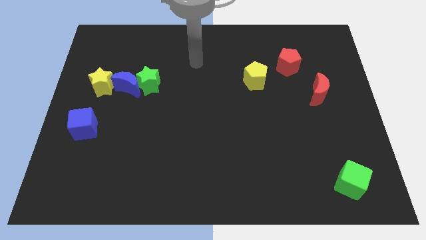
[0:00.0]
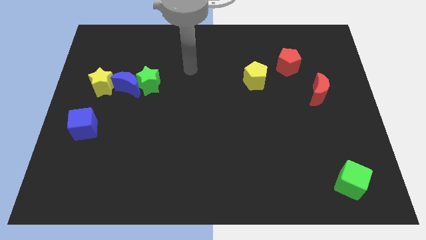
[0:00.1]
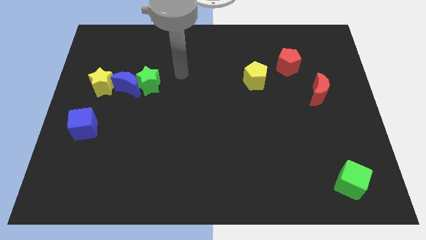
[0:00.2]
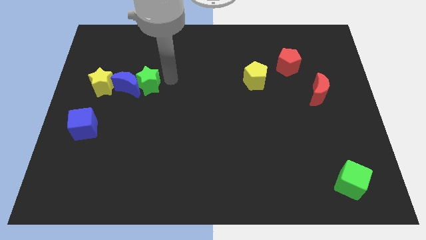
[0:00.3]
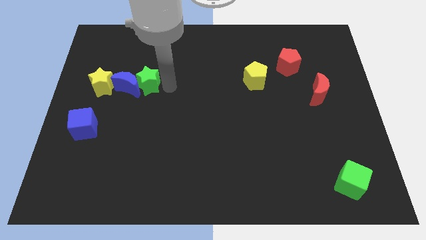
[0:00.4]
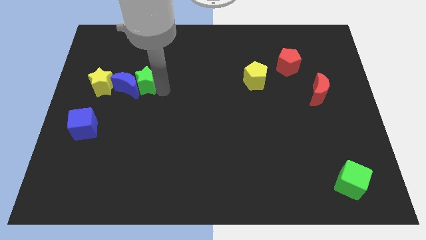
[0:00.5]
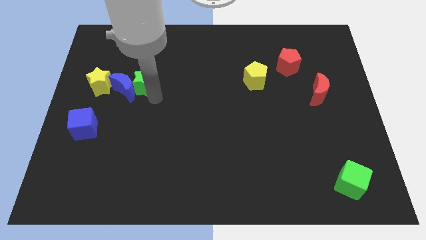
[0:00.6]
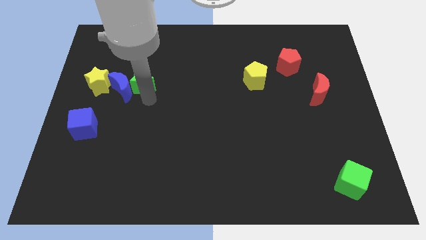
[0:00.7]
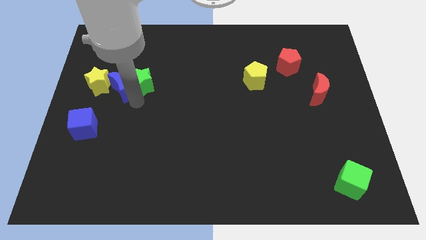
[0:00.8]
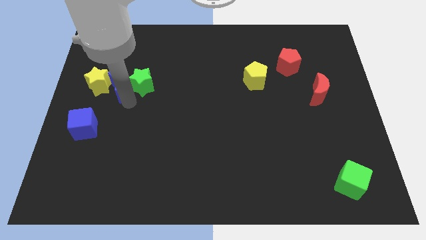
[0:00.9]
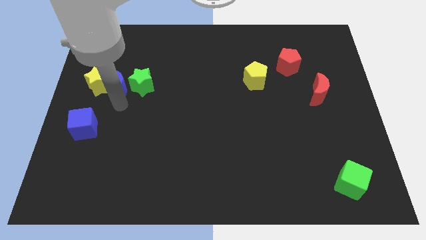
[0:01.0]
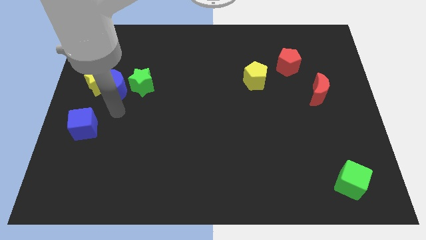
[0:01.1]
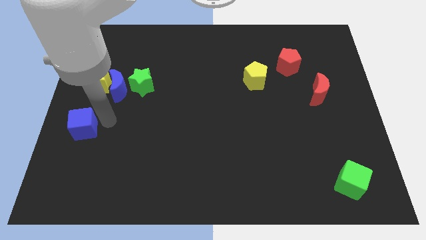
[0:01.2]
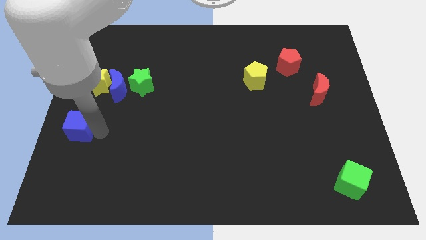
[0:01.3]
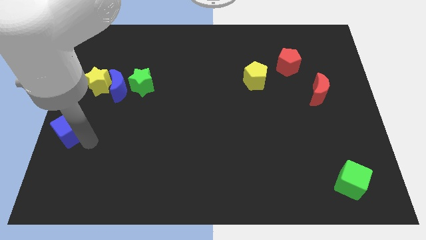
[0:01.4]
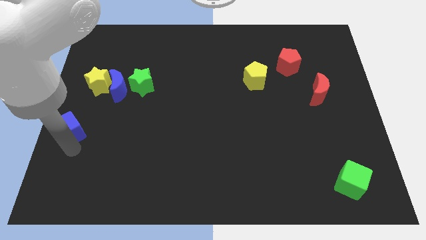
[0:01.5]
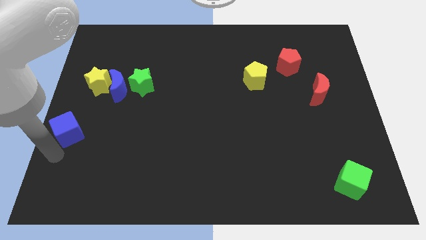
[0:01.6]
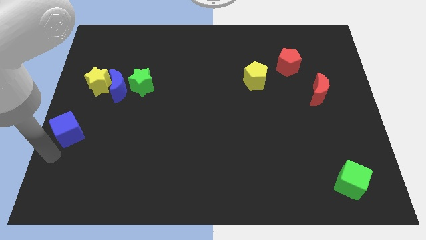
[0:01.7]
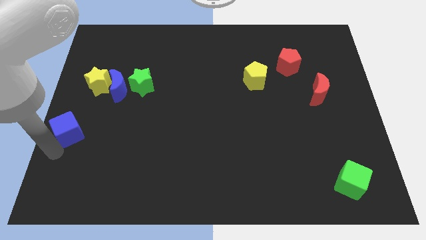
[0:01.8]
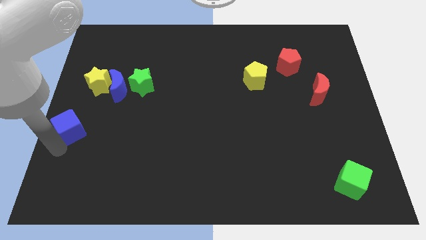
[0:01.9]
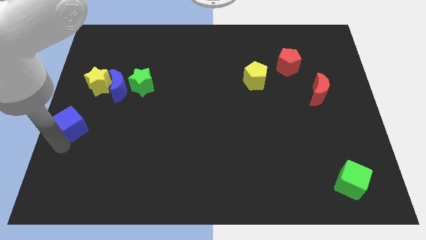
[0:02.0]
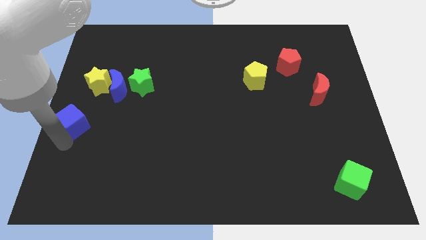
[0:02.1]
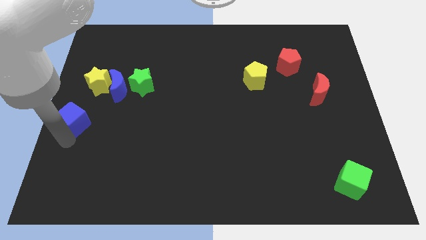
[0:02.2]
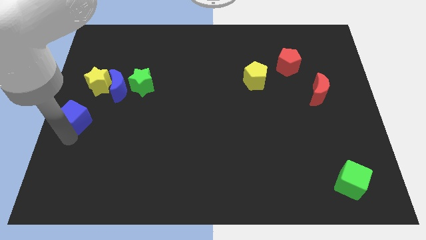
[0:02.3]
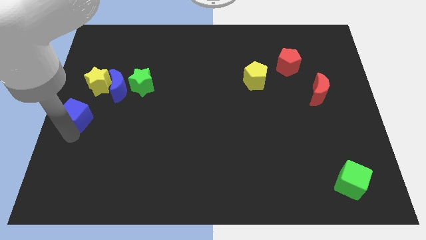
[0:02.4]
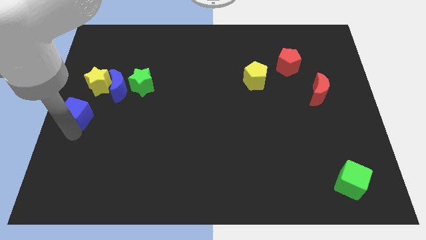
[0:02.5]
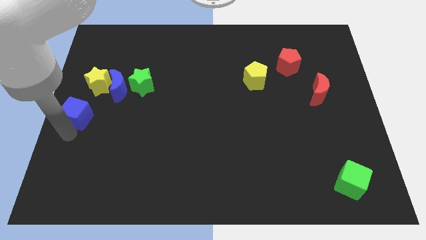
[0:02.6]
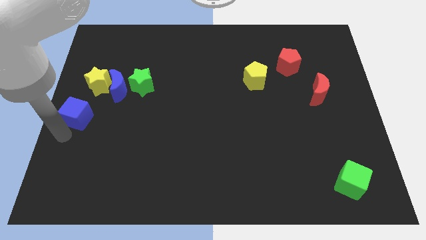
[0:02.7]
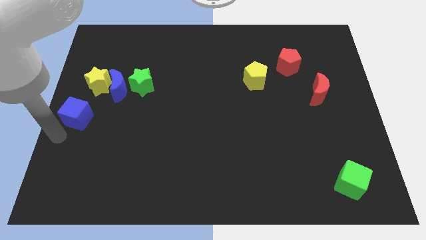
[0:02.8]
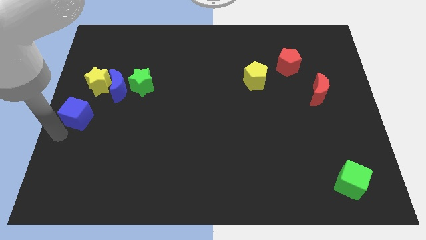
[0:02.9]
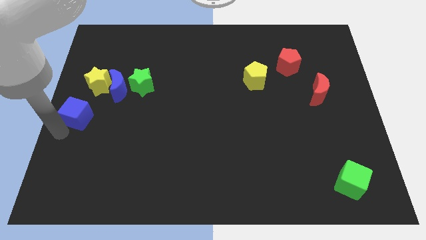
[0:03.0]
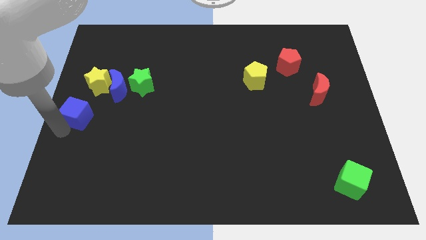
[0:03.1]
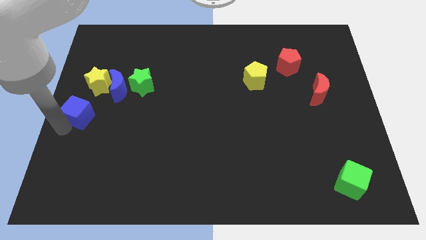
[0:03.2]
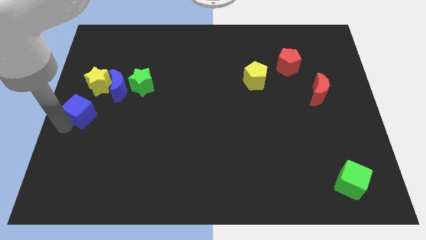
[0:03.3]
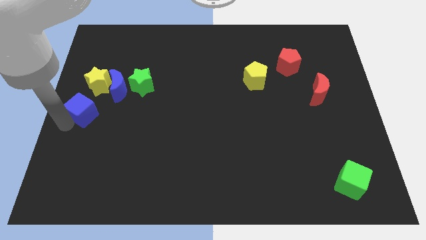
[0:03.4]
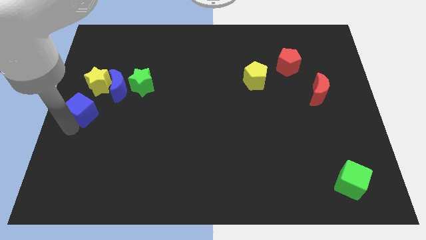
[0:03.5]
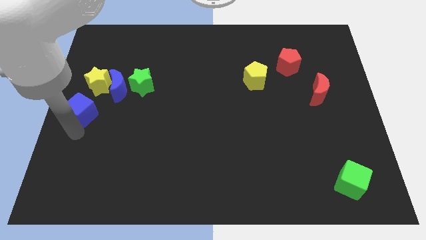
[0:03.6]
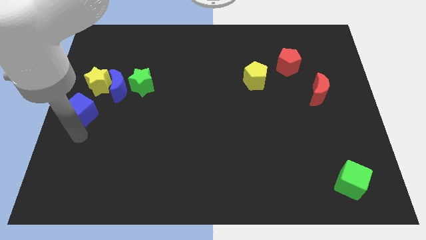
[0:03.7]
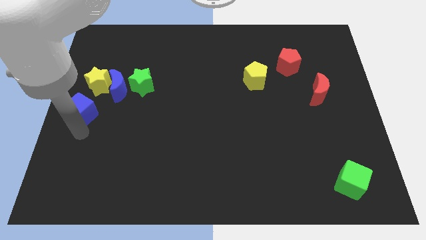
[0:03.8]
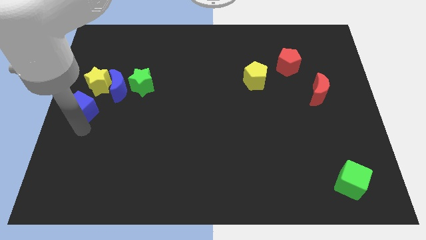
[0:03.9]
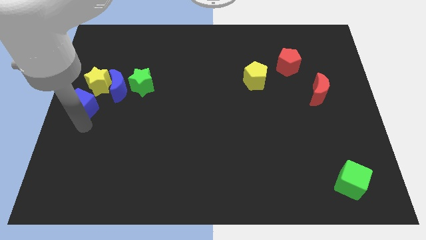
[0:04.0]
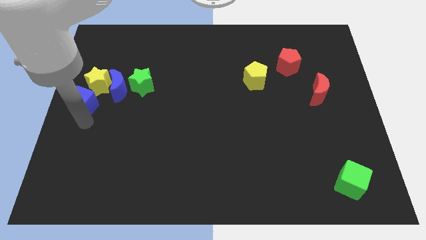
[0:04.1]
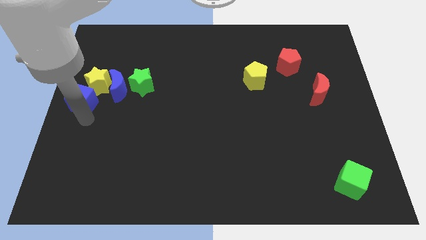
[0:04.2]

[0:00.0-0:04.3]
slightly slide the blue cube upwards

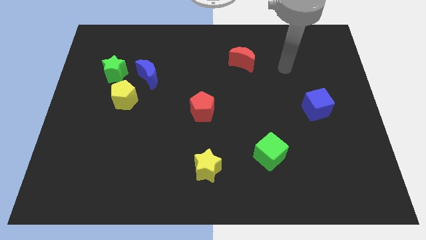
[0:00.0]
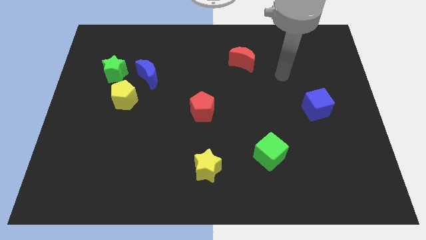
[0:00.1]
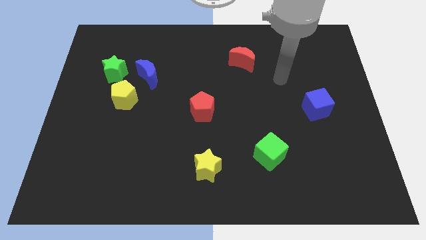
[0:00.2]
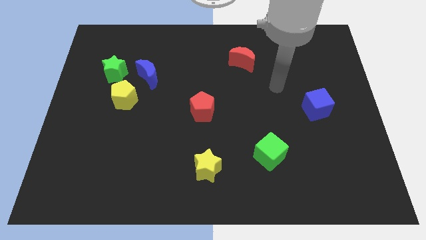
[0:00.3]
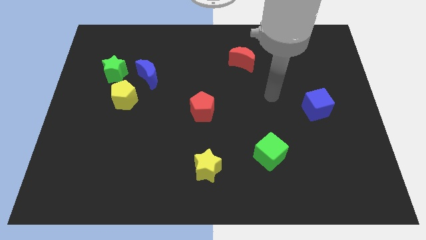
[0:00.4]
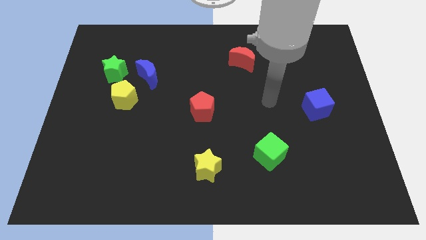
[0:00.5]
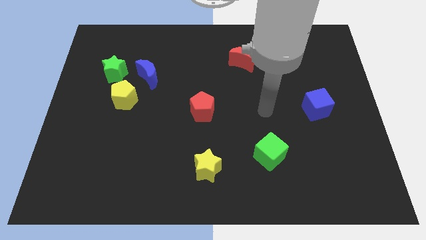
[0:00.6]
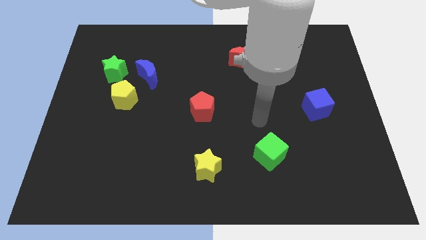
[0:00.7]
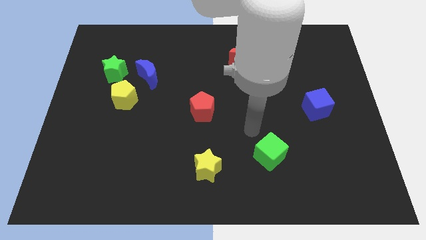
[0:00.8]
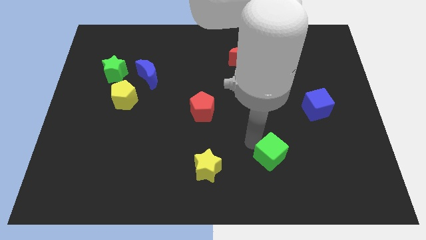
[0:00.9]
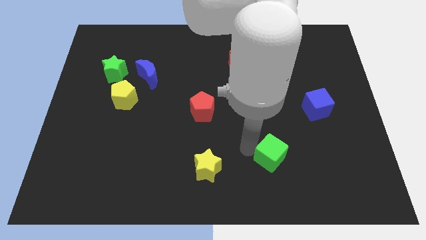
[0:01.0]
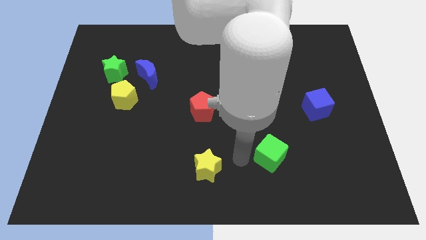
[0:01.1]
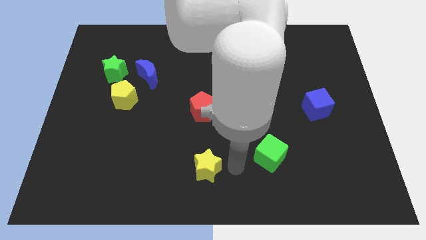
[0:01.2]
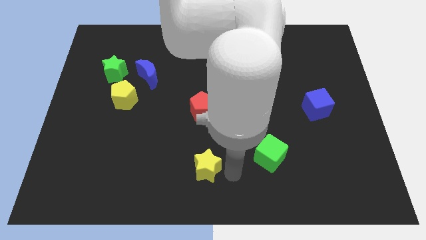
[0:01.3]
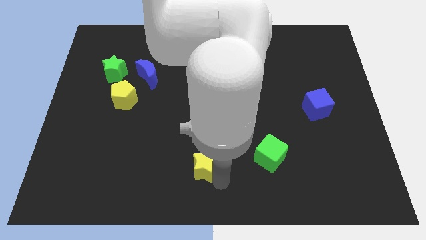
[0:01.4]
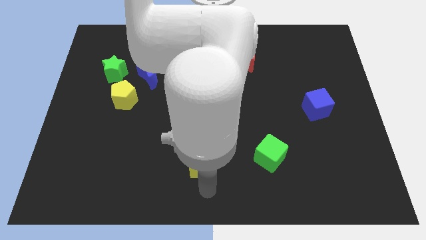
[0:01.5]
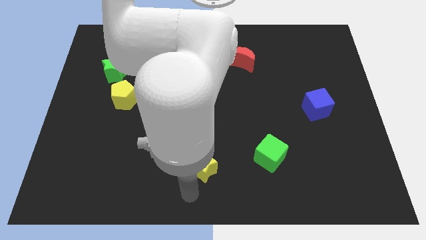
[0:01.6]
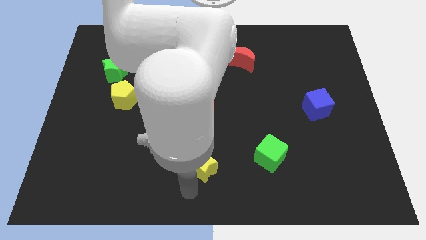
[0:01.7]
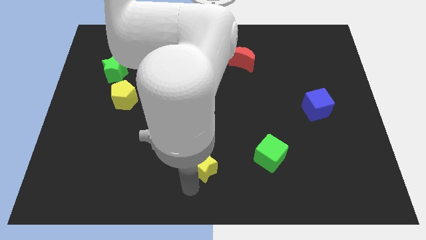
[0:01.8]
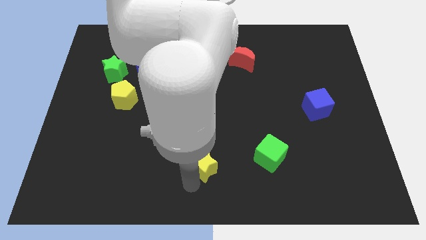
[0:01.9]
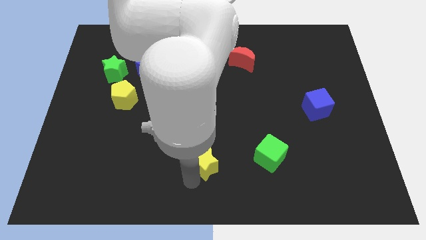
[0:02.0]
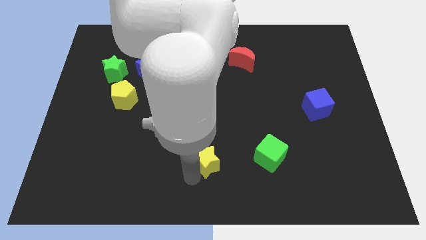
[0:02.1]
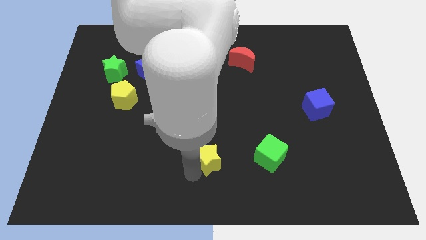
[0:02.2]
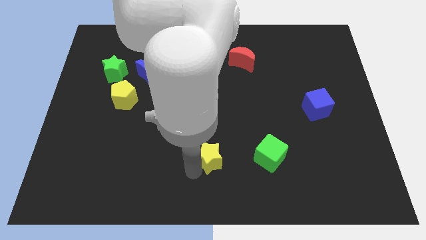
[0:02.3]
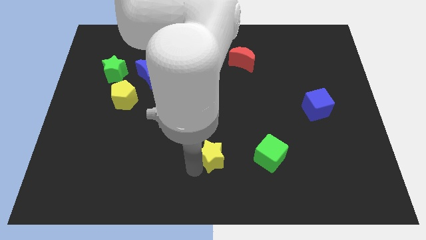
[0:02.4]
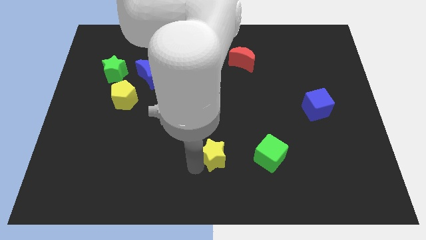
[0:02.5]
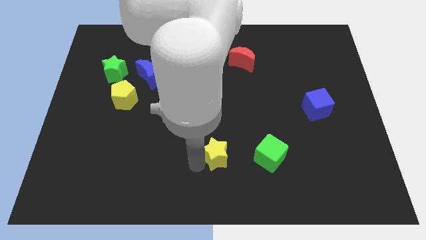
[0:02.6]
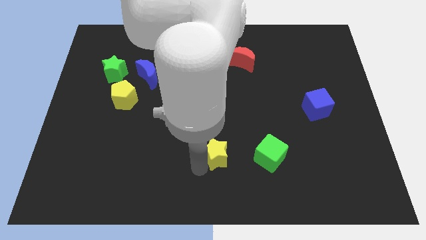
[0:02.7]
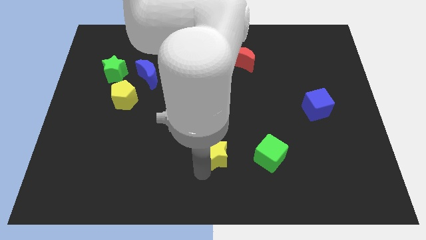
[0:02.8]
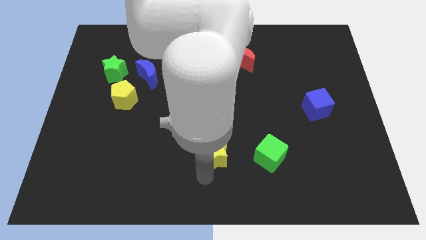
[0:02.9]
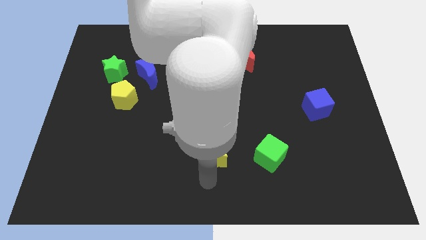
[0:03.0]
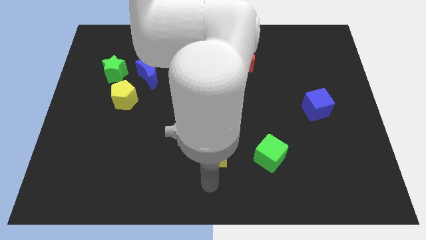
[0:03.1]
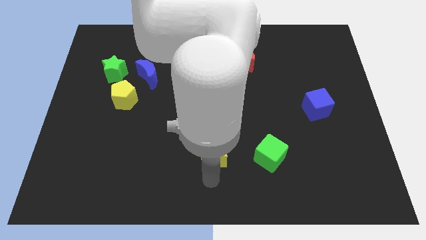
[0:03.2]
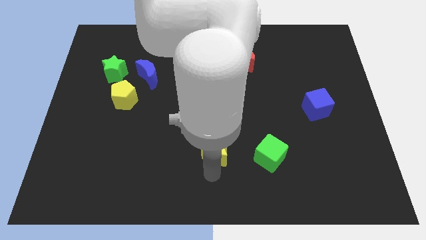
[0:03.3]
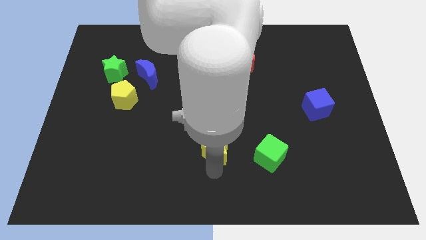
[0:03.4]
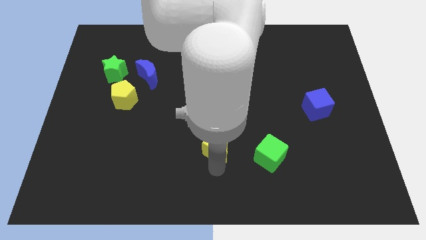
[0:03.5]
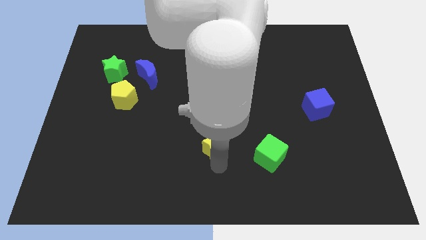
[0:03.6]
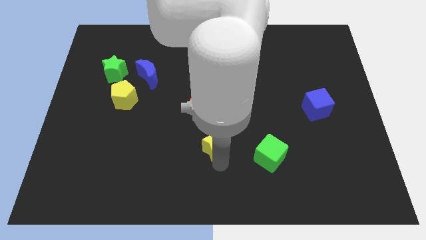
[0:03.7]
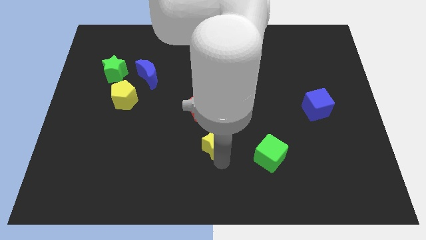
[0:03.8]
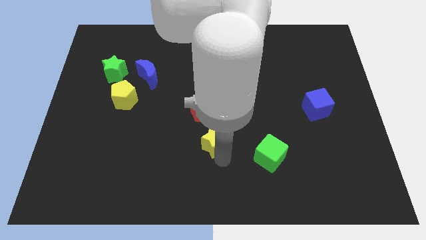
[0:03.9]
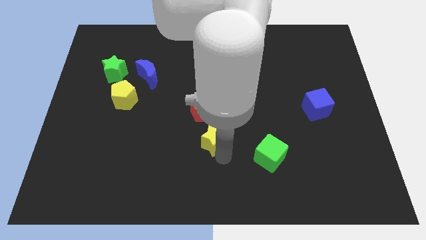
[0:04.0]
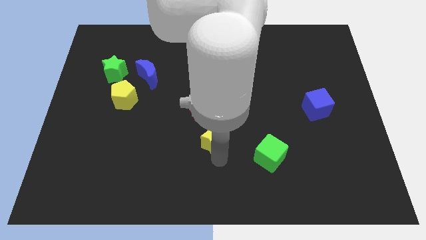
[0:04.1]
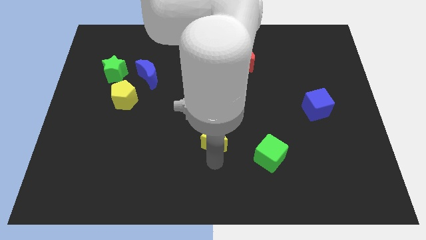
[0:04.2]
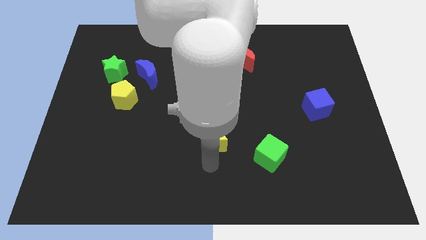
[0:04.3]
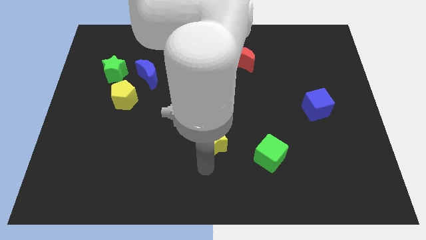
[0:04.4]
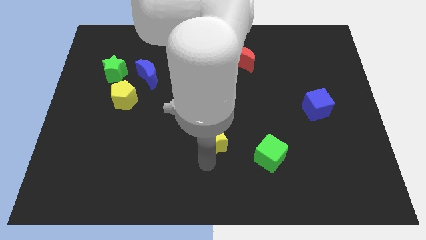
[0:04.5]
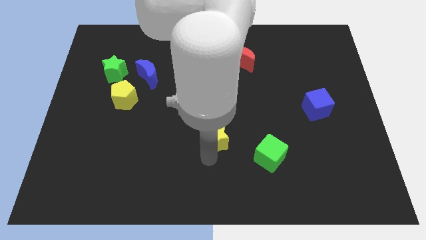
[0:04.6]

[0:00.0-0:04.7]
push the yellow star somewhat upwards
